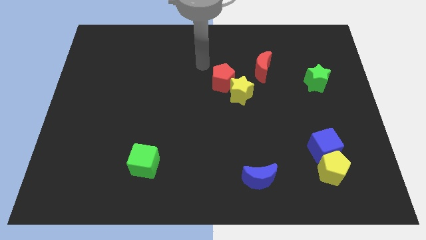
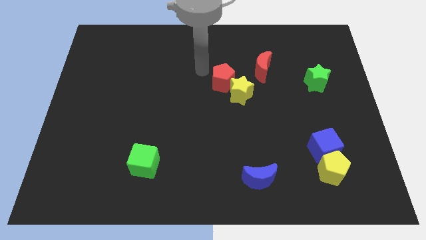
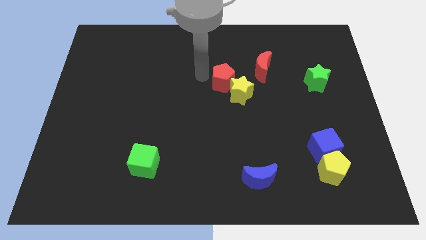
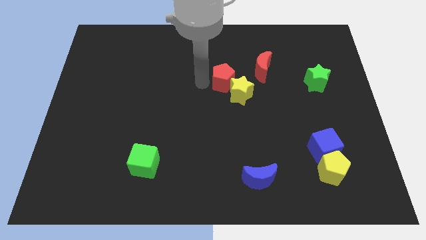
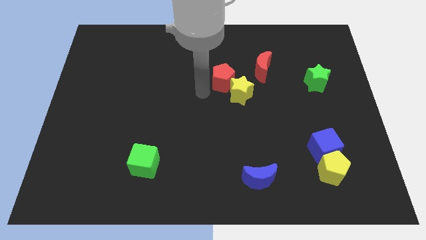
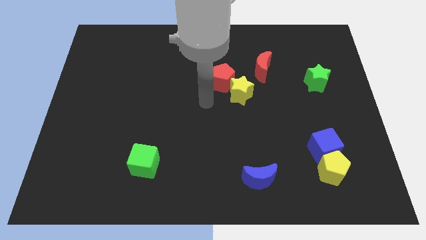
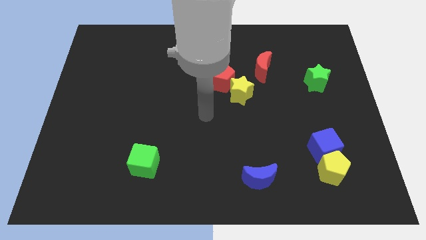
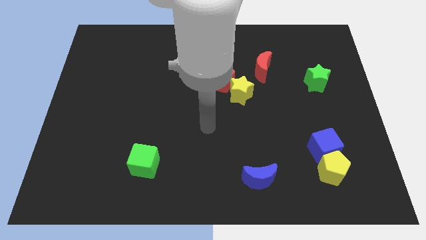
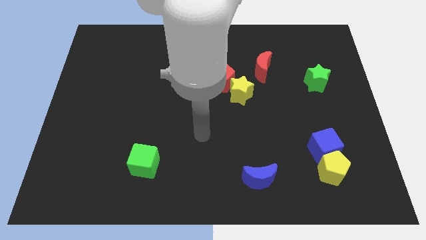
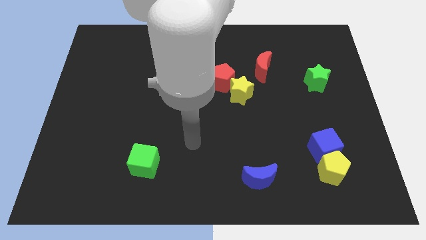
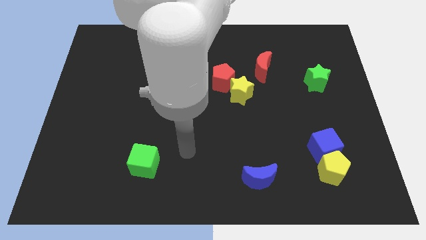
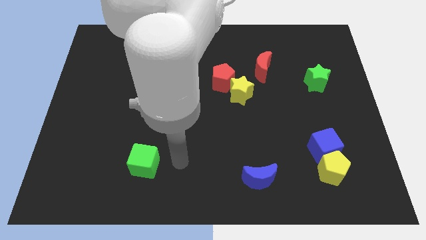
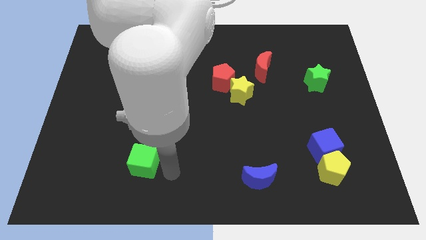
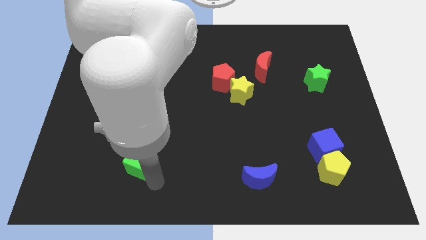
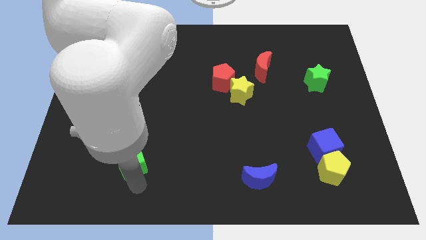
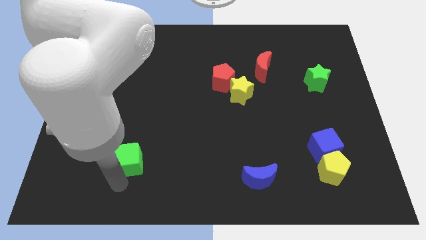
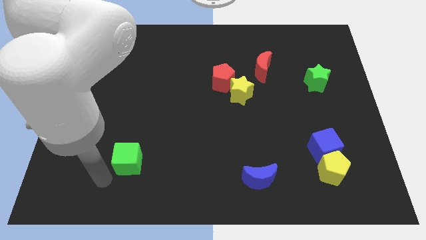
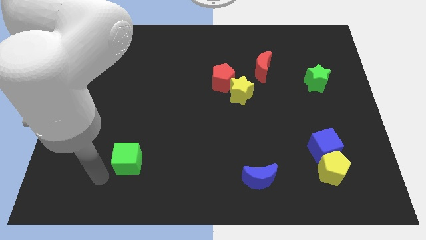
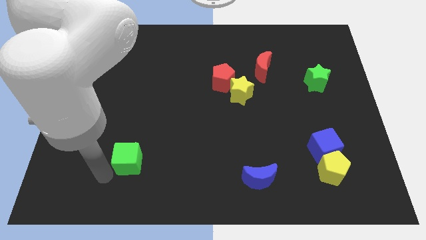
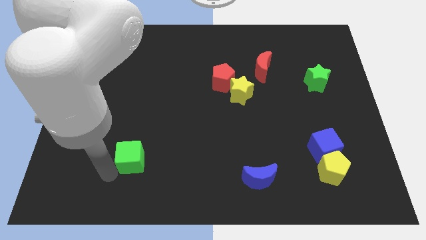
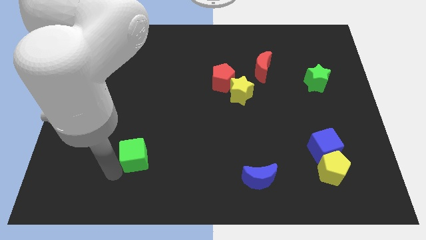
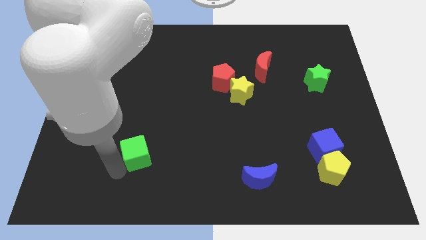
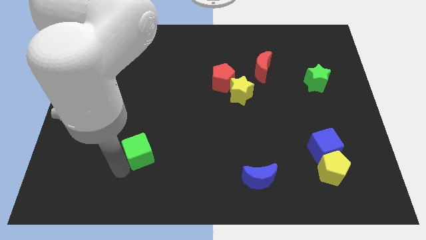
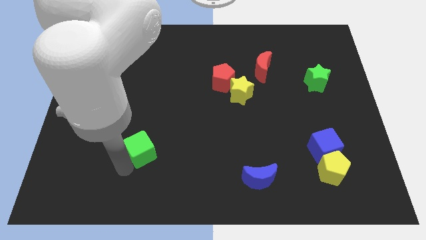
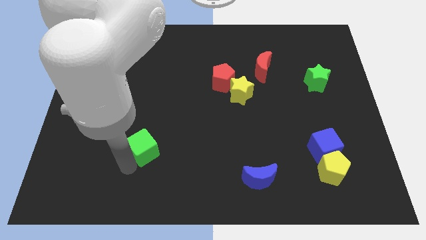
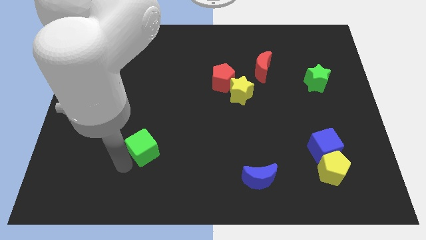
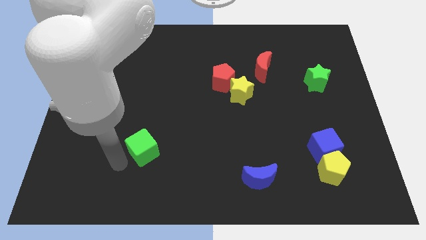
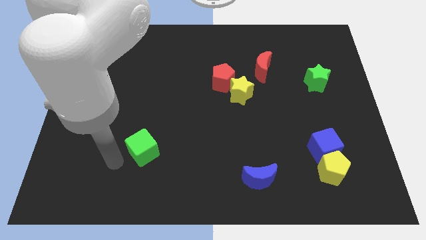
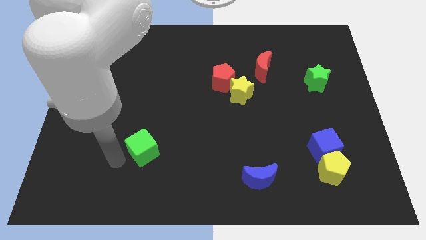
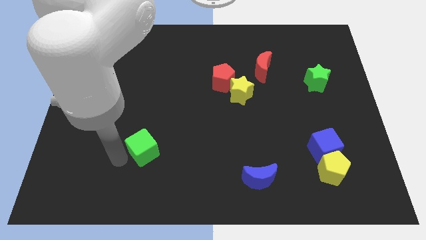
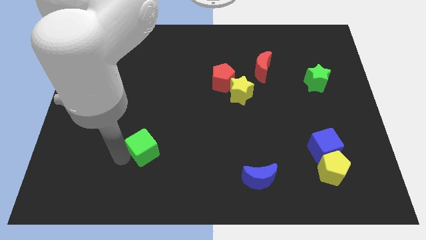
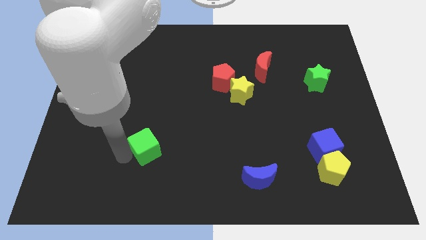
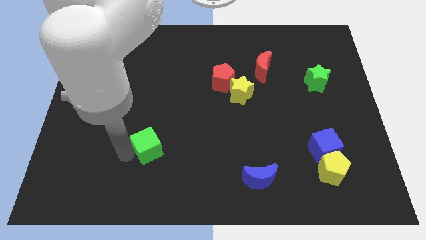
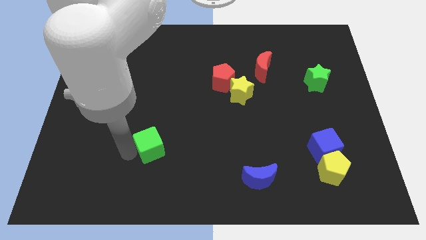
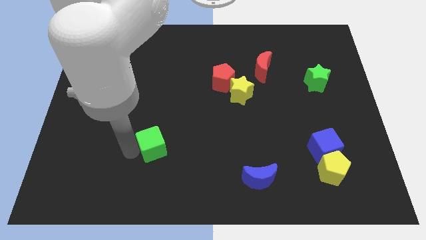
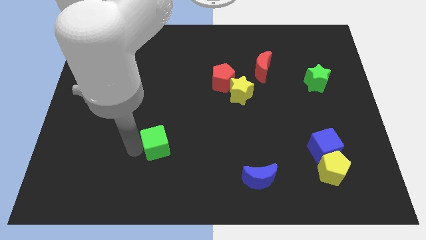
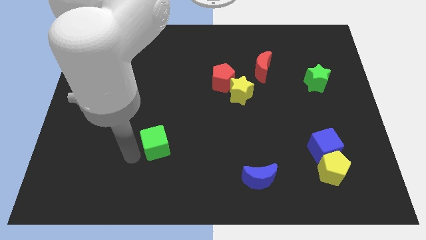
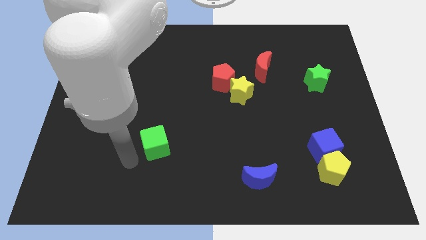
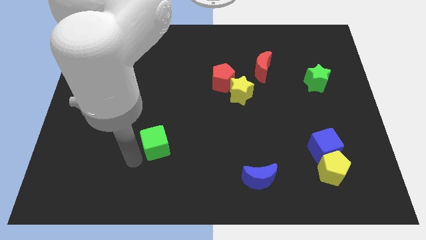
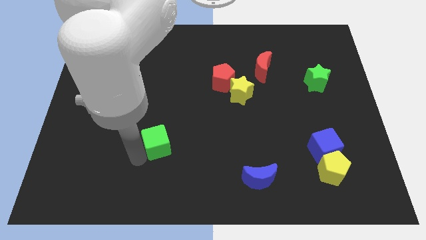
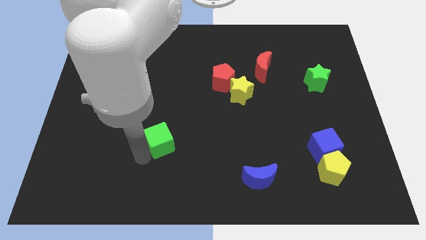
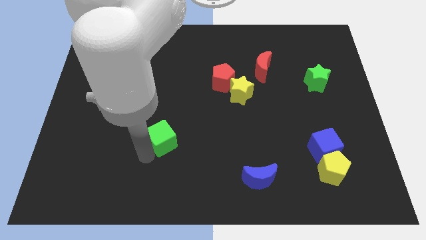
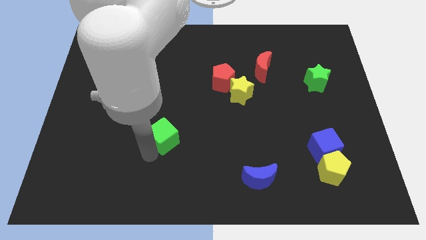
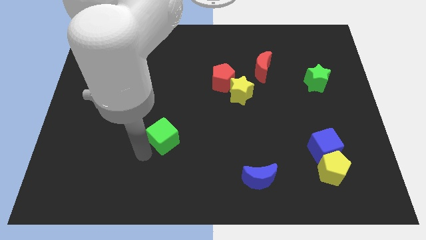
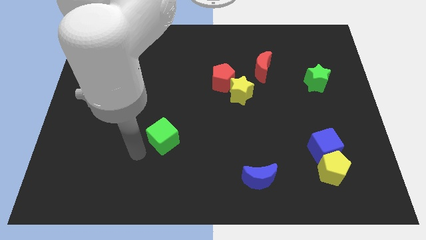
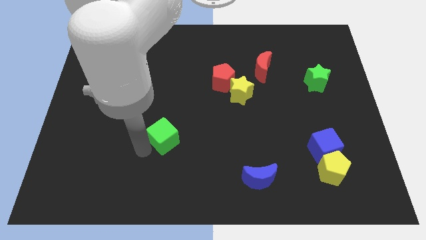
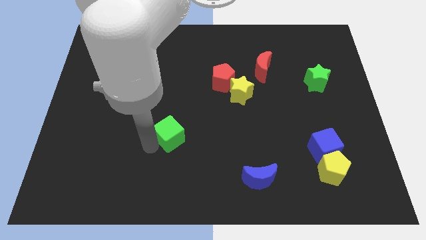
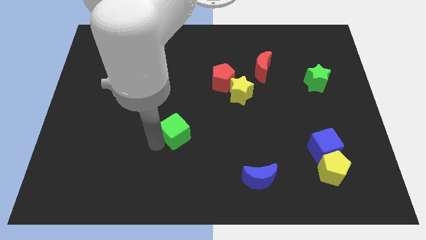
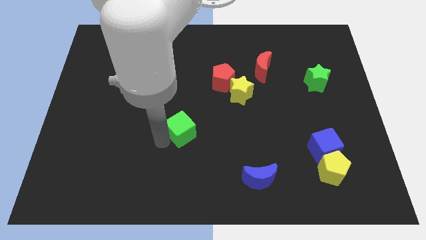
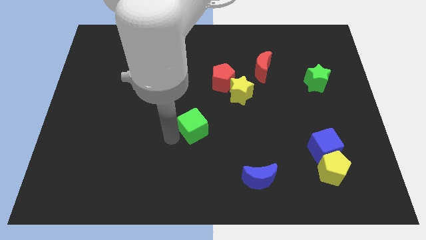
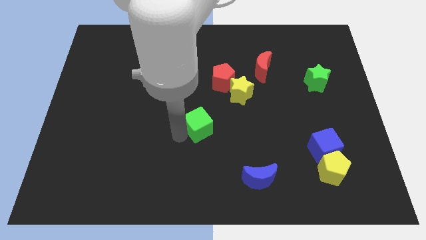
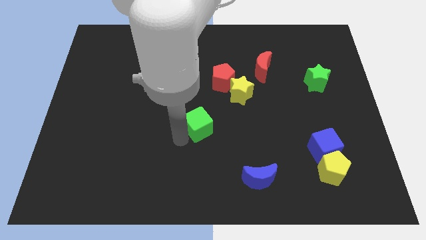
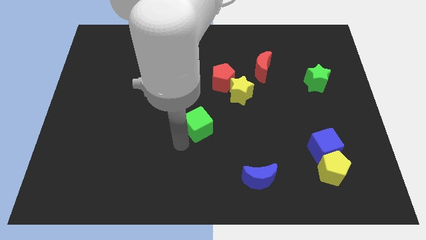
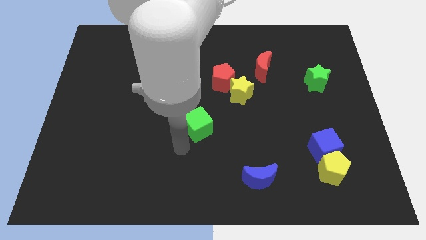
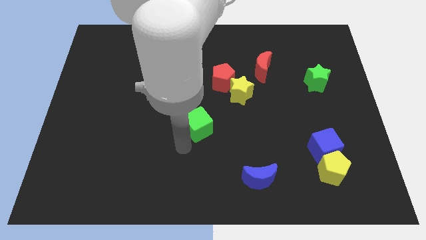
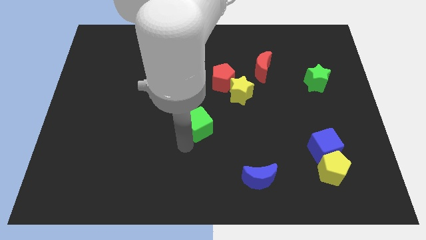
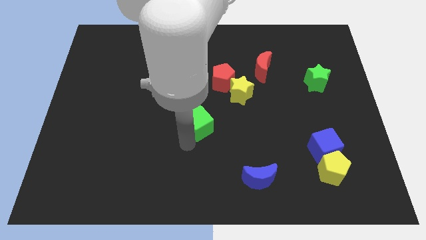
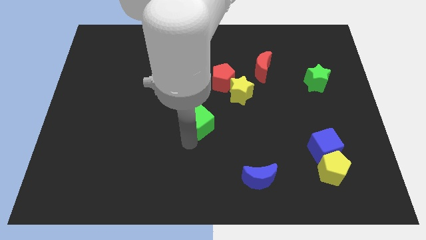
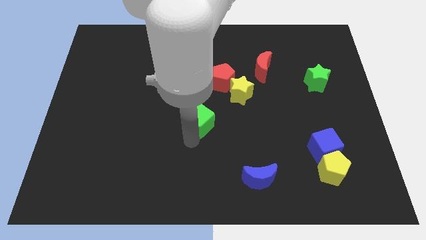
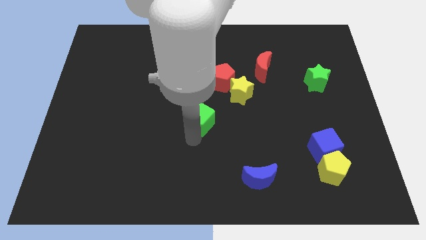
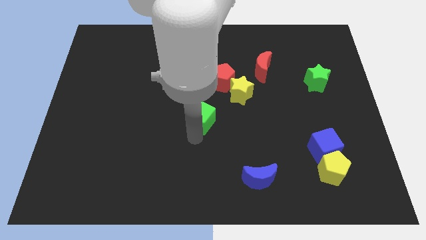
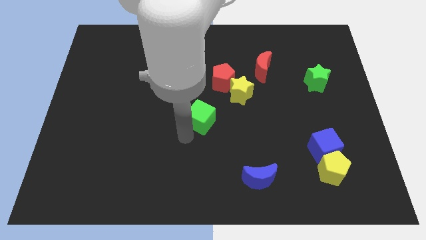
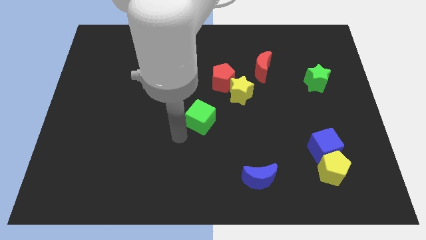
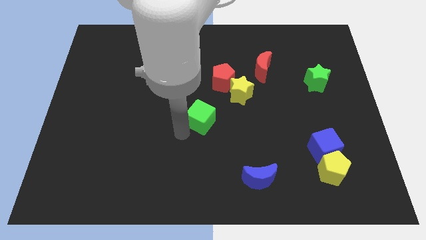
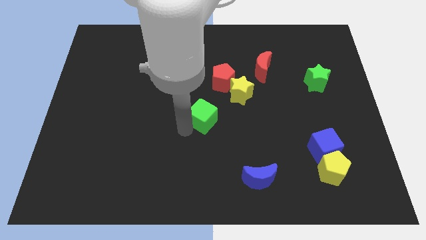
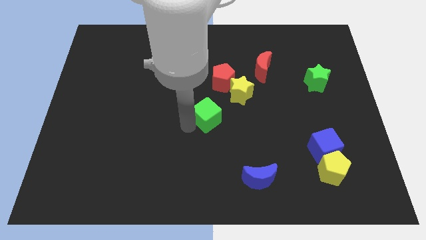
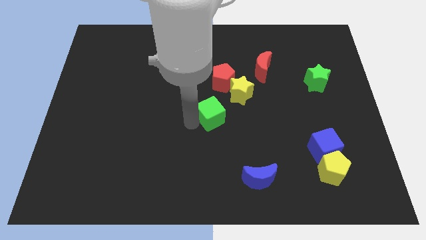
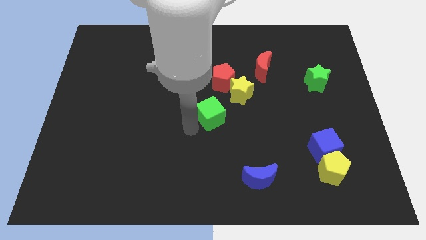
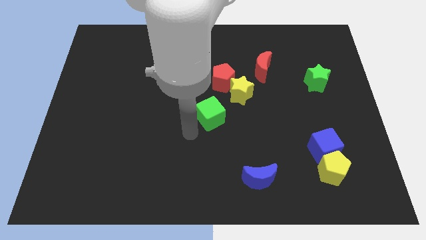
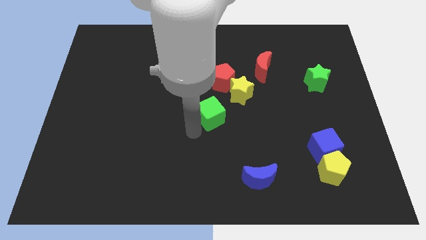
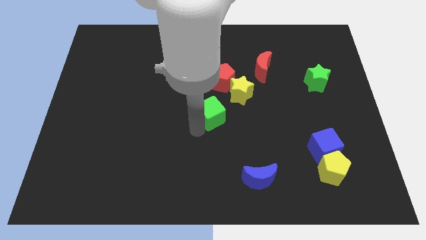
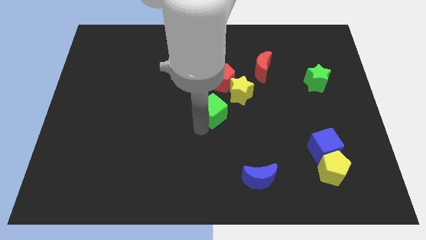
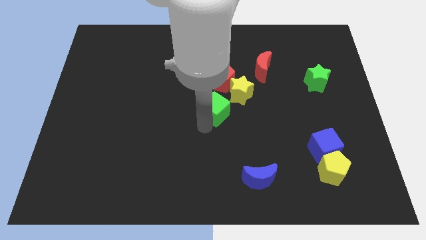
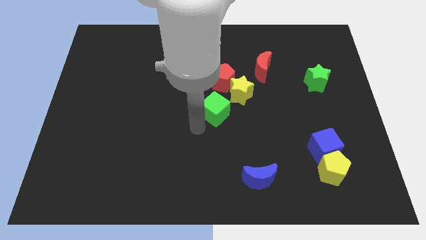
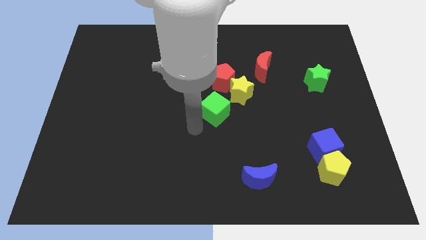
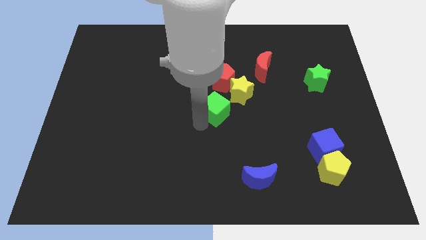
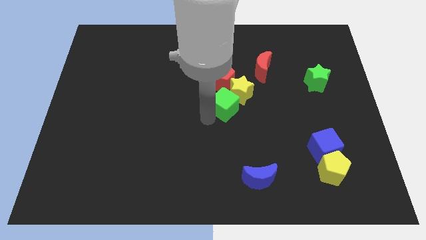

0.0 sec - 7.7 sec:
put the green cube towards the yellow star
